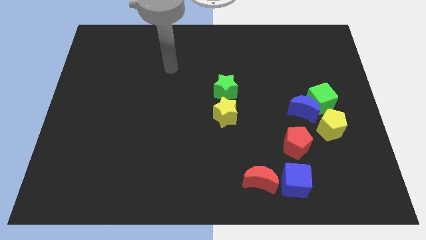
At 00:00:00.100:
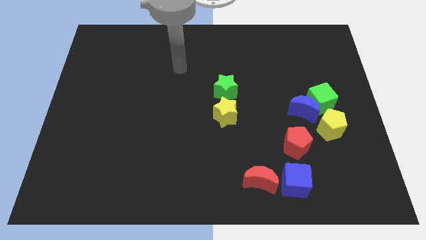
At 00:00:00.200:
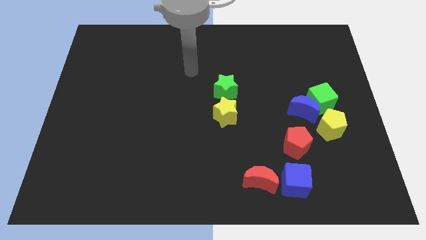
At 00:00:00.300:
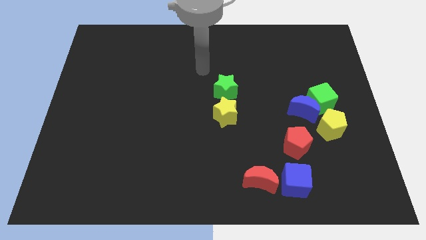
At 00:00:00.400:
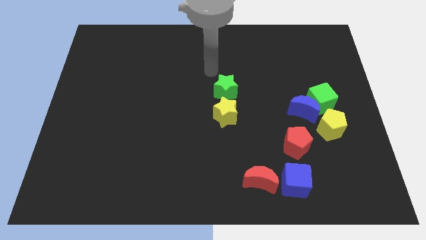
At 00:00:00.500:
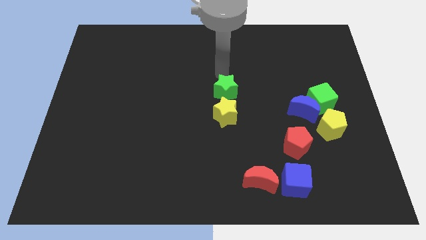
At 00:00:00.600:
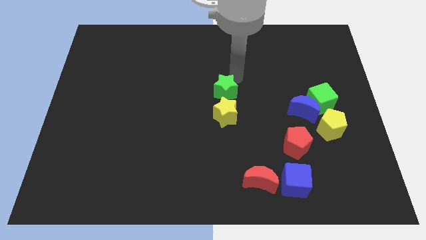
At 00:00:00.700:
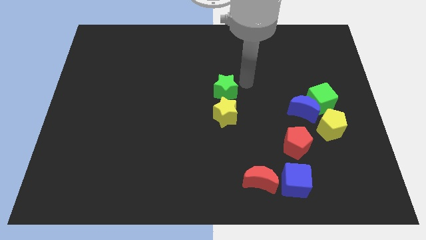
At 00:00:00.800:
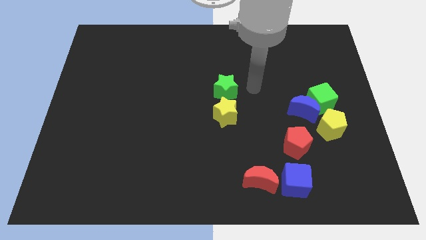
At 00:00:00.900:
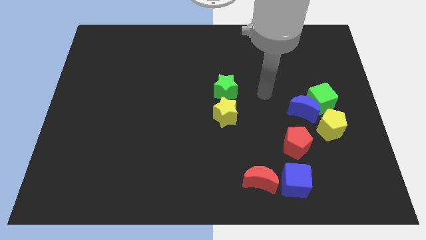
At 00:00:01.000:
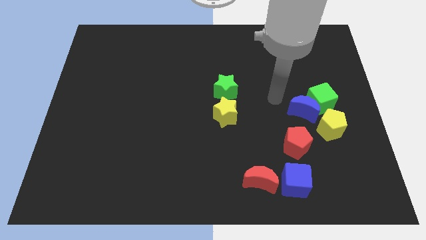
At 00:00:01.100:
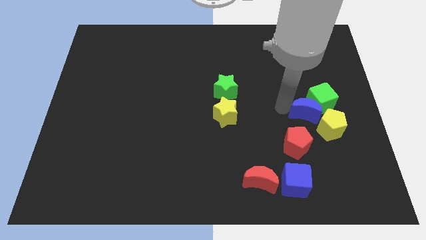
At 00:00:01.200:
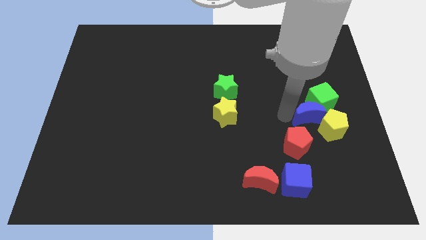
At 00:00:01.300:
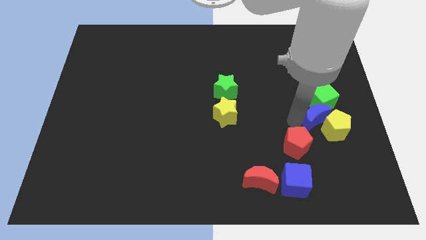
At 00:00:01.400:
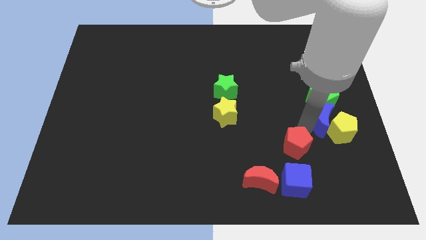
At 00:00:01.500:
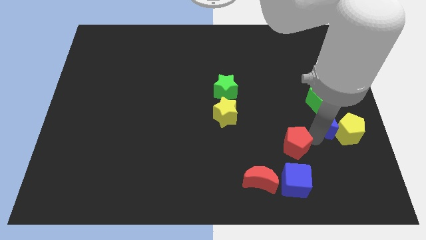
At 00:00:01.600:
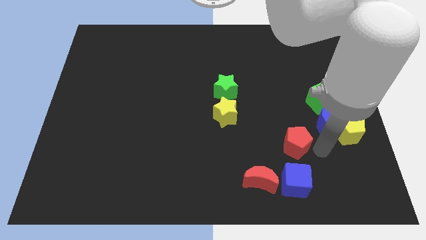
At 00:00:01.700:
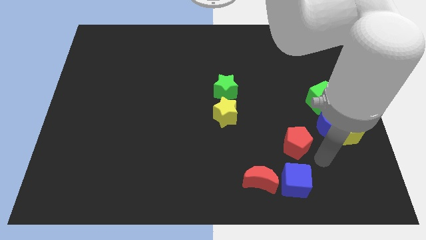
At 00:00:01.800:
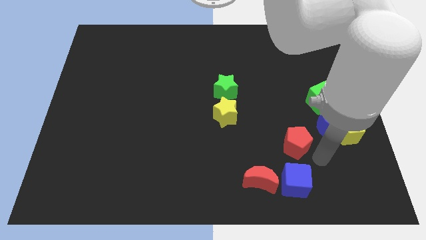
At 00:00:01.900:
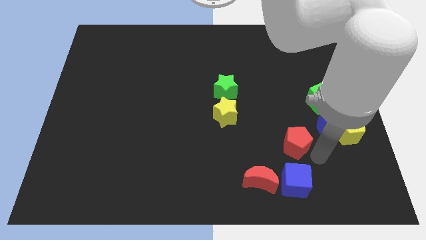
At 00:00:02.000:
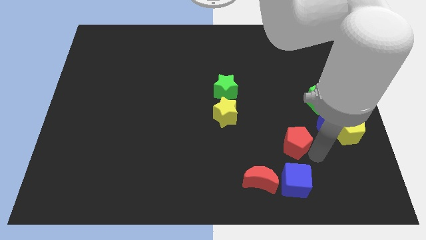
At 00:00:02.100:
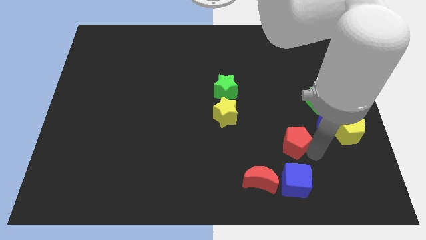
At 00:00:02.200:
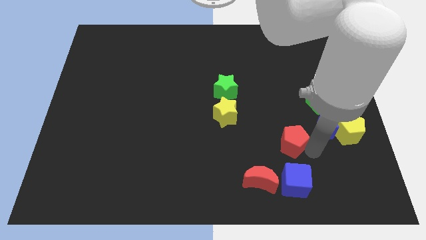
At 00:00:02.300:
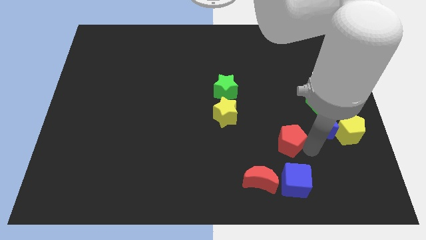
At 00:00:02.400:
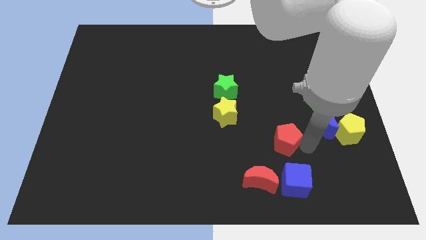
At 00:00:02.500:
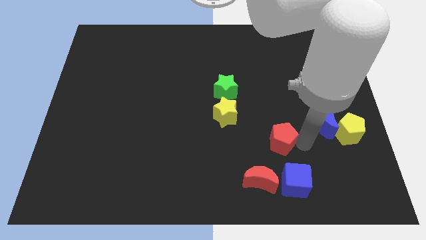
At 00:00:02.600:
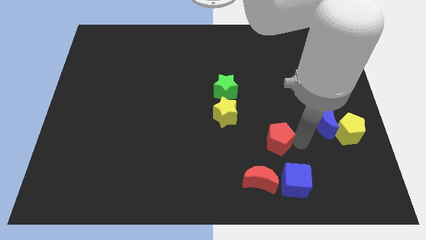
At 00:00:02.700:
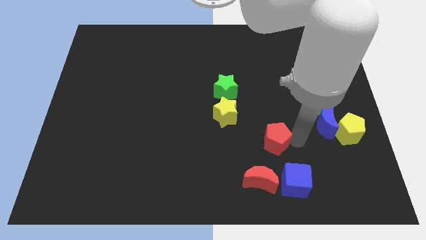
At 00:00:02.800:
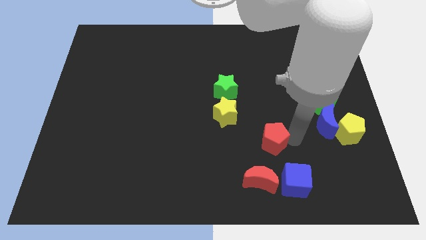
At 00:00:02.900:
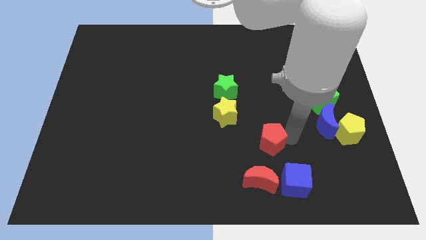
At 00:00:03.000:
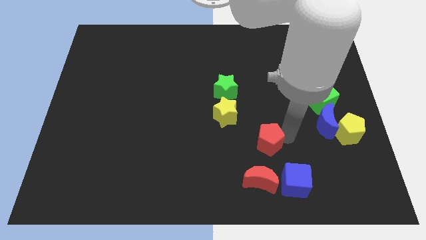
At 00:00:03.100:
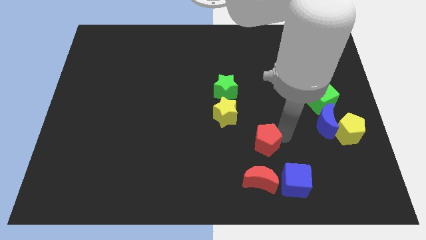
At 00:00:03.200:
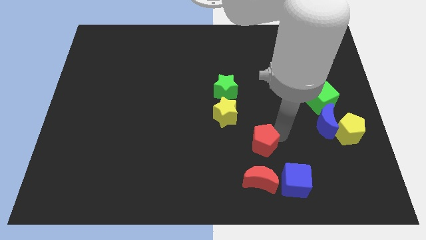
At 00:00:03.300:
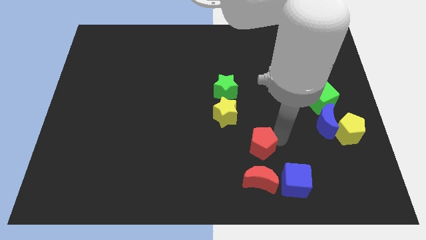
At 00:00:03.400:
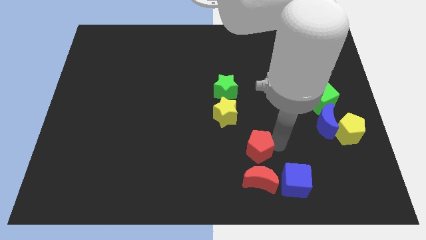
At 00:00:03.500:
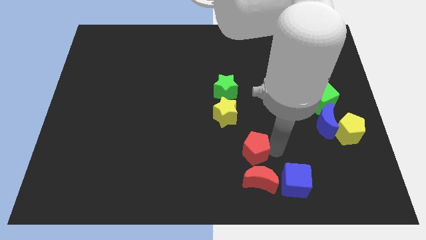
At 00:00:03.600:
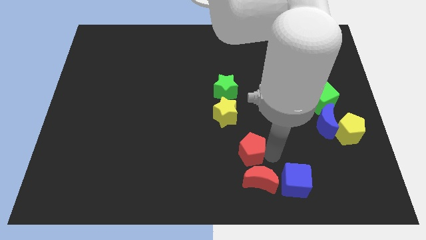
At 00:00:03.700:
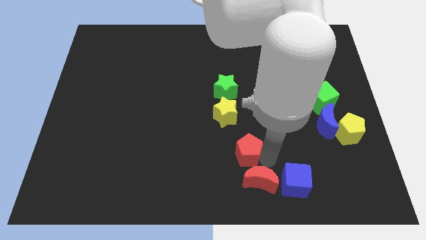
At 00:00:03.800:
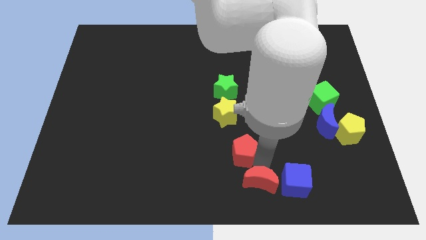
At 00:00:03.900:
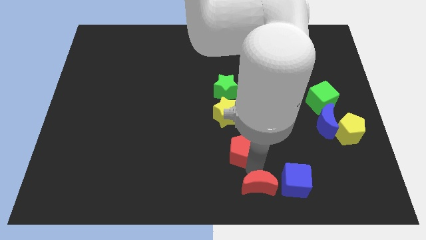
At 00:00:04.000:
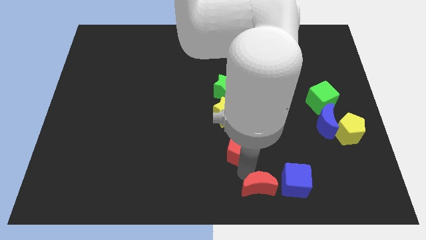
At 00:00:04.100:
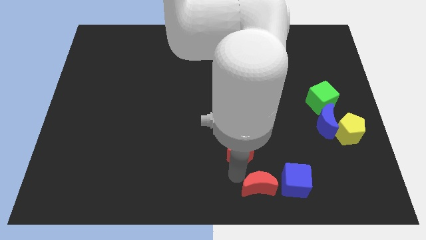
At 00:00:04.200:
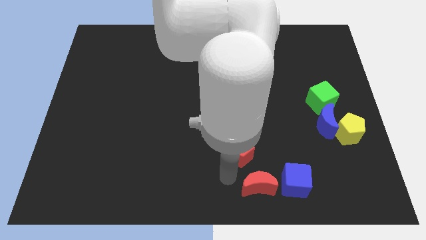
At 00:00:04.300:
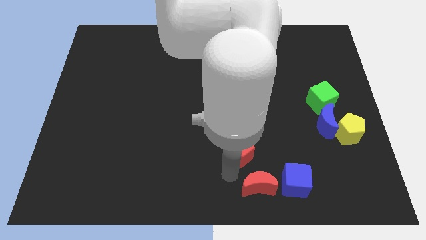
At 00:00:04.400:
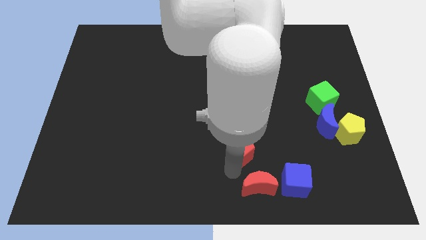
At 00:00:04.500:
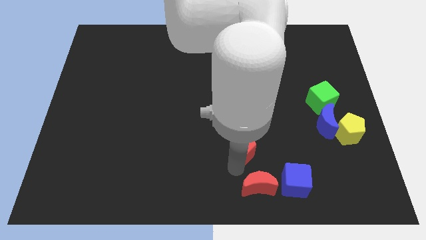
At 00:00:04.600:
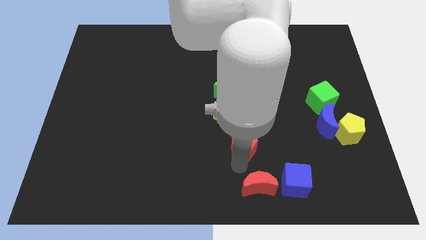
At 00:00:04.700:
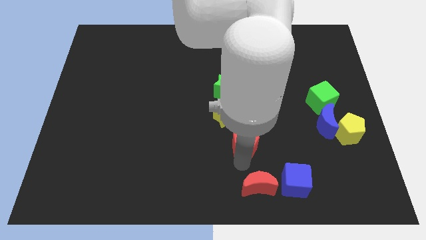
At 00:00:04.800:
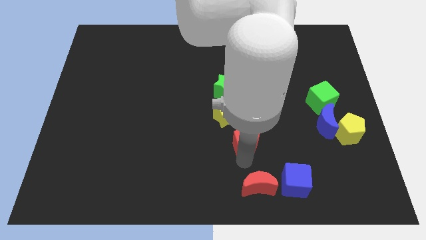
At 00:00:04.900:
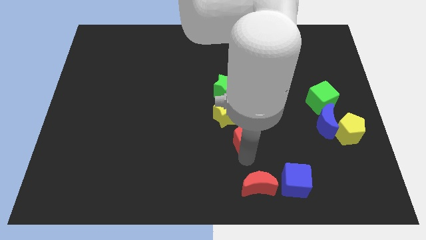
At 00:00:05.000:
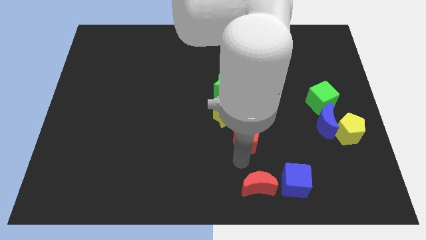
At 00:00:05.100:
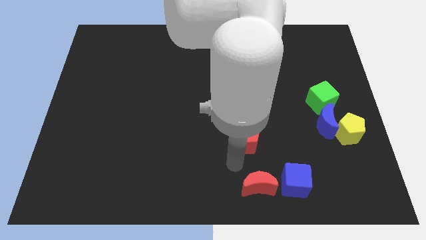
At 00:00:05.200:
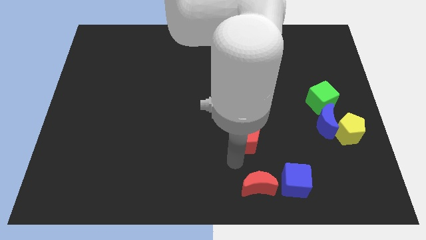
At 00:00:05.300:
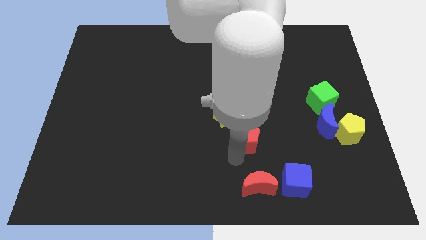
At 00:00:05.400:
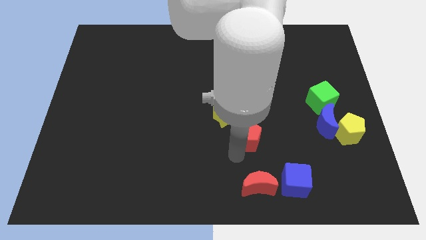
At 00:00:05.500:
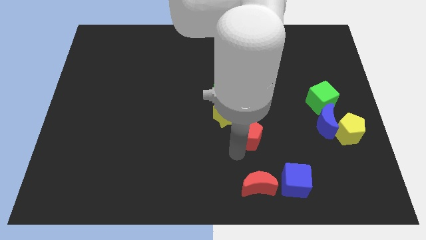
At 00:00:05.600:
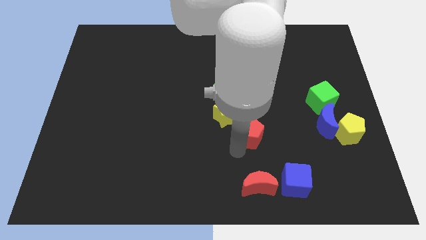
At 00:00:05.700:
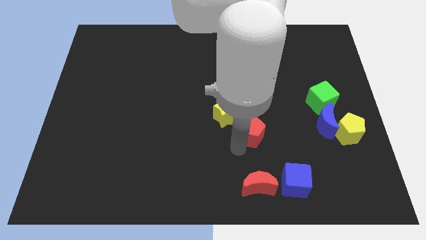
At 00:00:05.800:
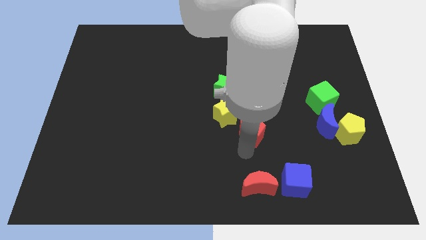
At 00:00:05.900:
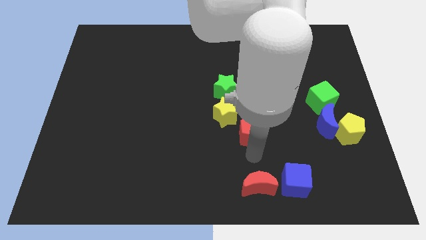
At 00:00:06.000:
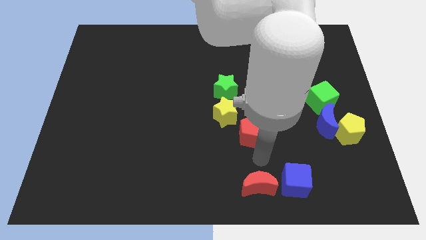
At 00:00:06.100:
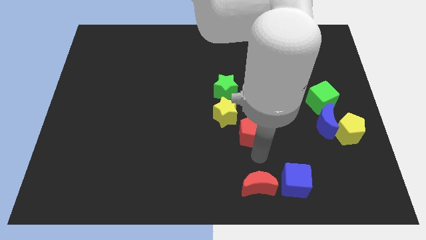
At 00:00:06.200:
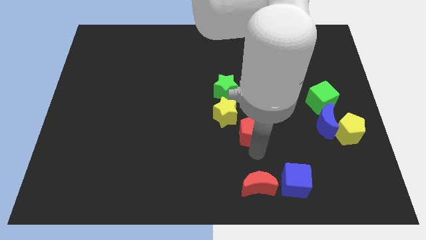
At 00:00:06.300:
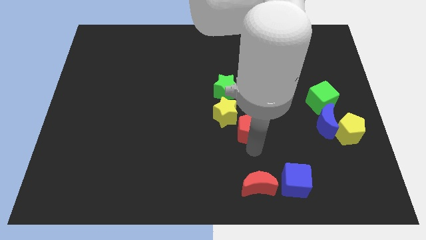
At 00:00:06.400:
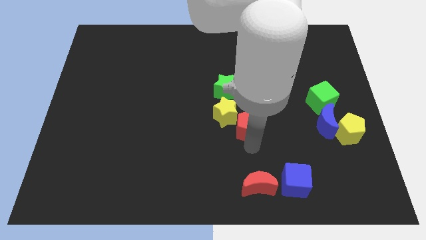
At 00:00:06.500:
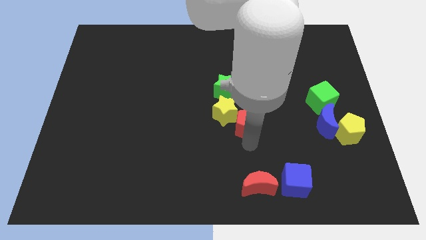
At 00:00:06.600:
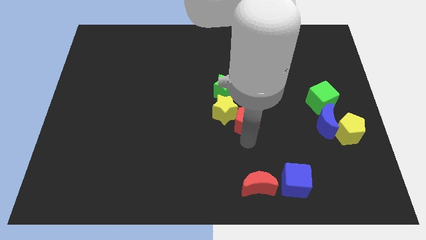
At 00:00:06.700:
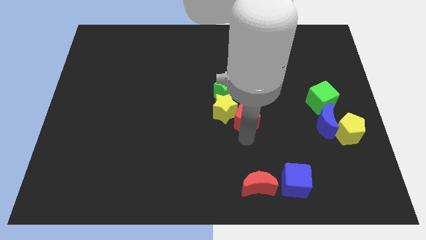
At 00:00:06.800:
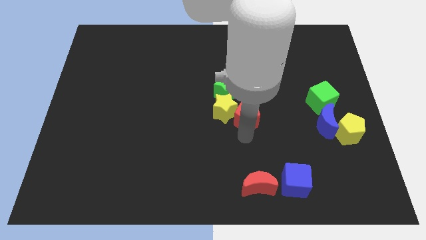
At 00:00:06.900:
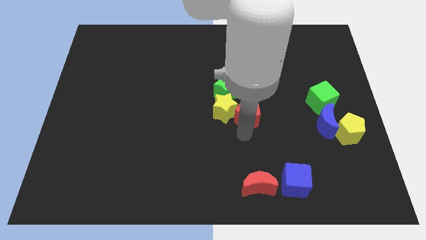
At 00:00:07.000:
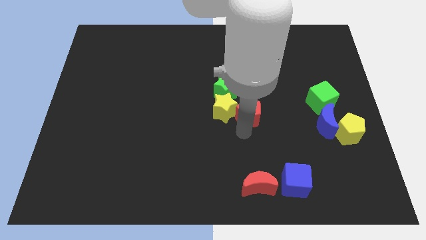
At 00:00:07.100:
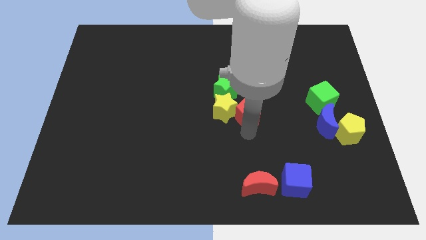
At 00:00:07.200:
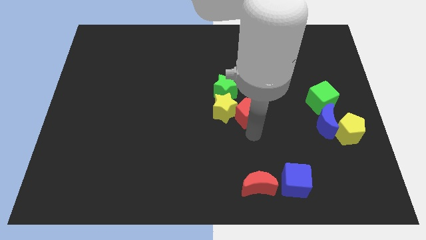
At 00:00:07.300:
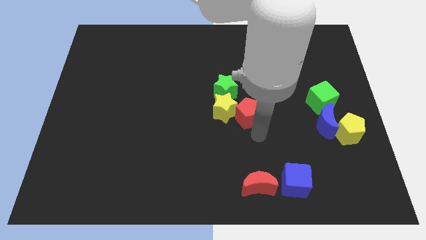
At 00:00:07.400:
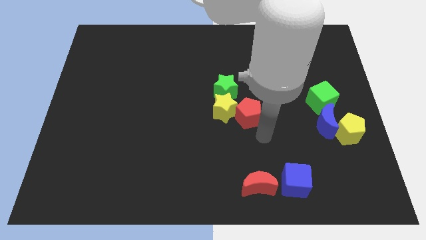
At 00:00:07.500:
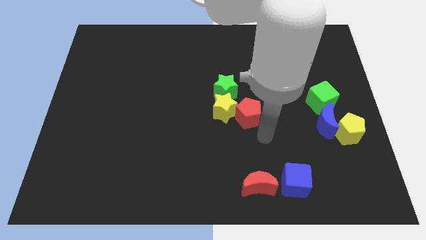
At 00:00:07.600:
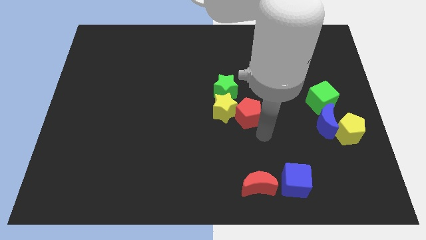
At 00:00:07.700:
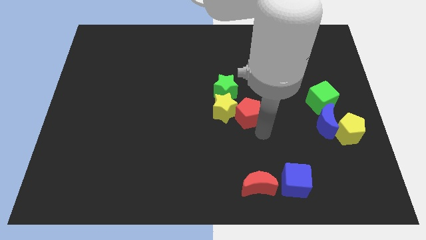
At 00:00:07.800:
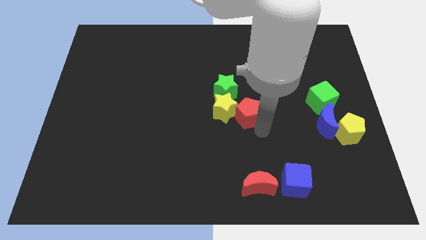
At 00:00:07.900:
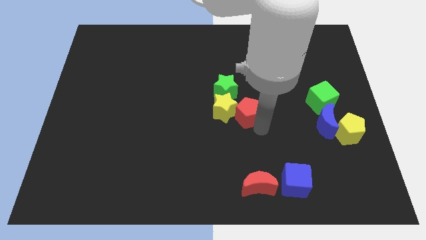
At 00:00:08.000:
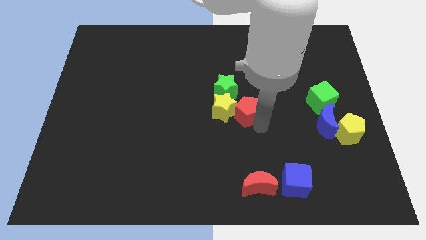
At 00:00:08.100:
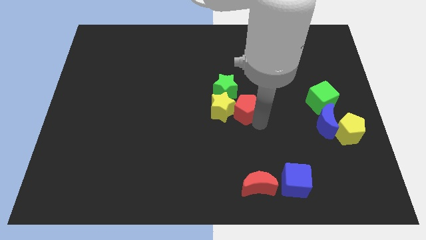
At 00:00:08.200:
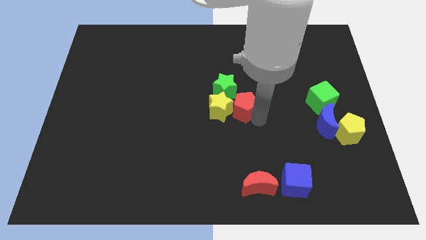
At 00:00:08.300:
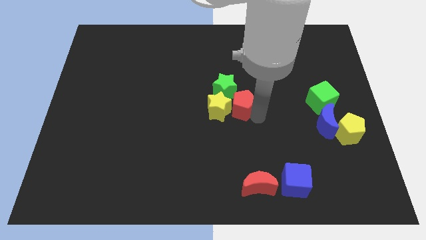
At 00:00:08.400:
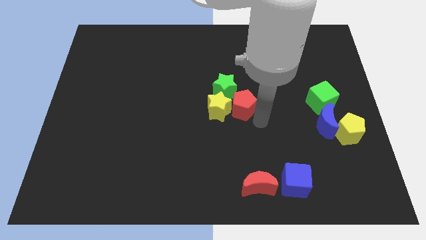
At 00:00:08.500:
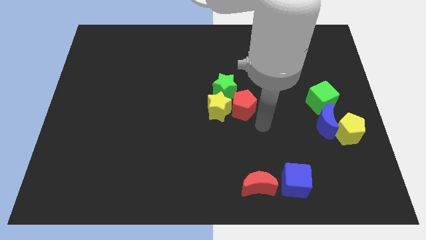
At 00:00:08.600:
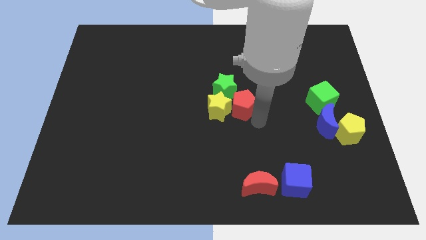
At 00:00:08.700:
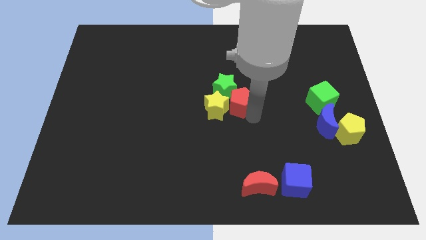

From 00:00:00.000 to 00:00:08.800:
push the red pentagon to the green star
